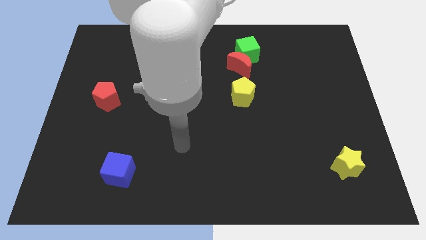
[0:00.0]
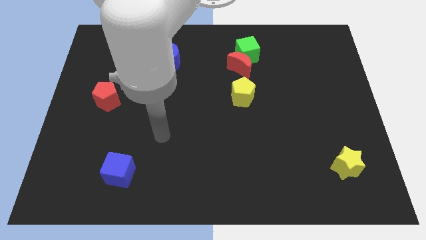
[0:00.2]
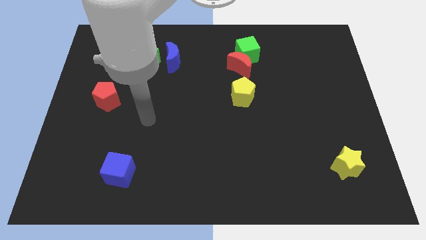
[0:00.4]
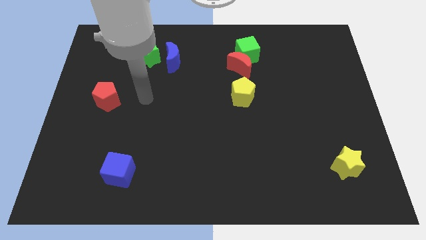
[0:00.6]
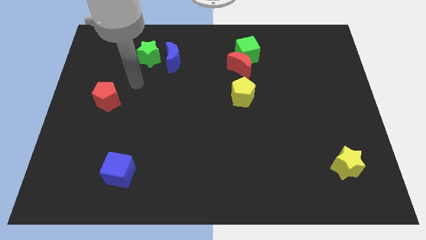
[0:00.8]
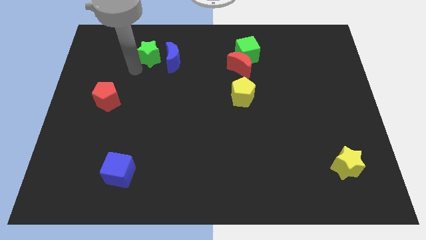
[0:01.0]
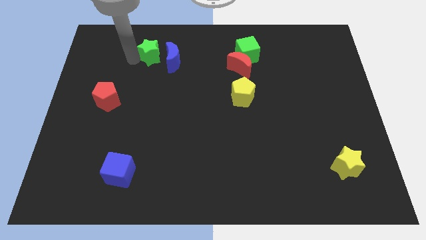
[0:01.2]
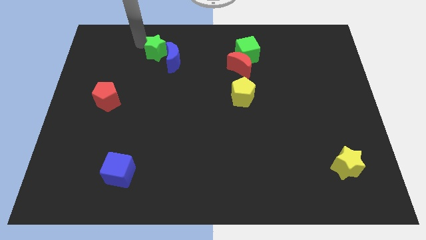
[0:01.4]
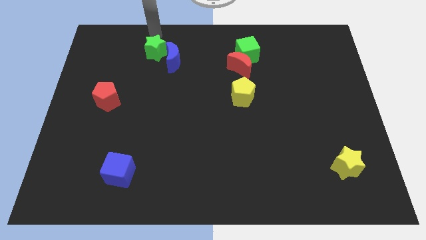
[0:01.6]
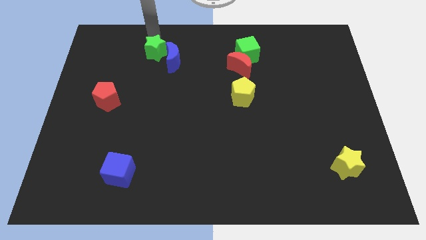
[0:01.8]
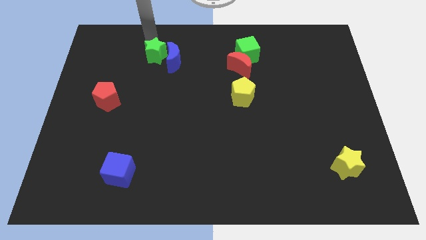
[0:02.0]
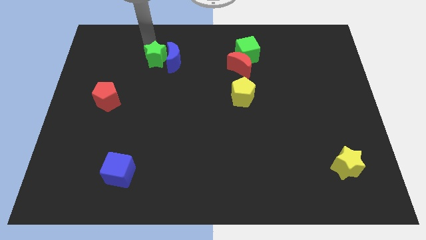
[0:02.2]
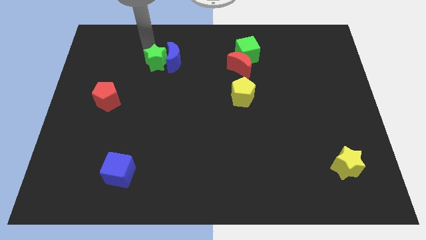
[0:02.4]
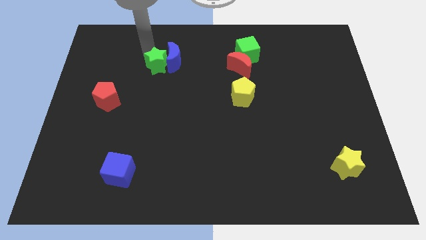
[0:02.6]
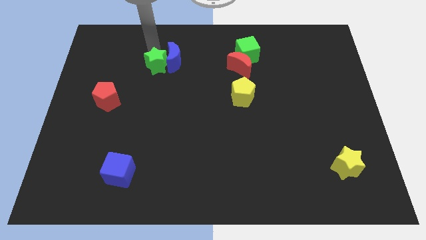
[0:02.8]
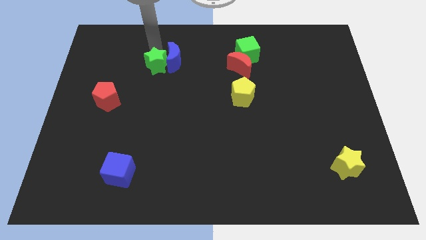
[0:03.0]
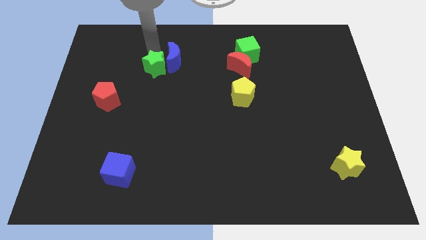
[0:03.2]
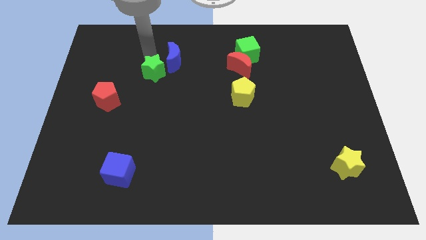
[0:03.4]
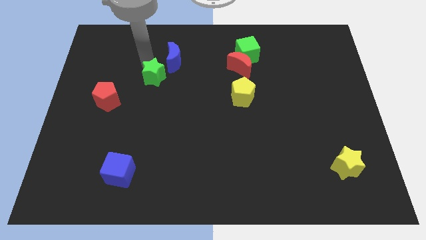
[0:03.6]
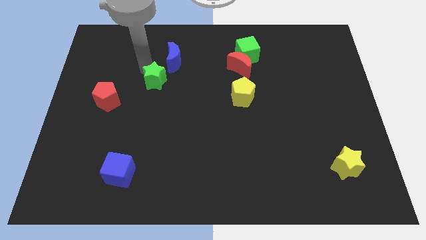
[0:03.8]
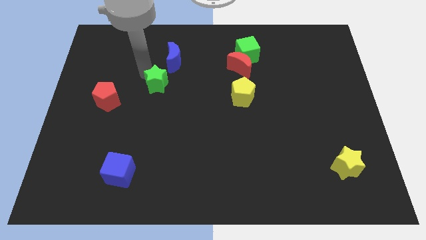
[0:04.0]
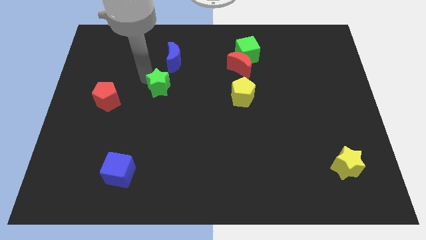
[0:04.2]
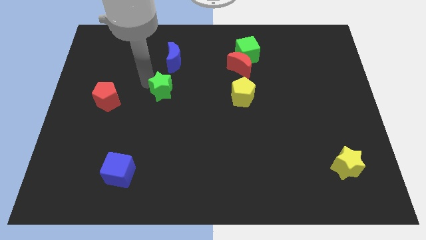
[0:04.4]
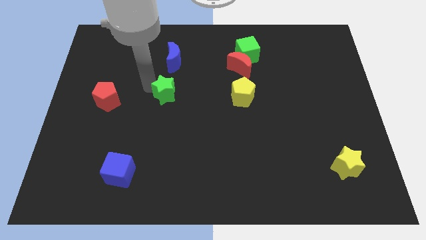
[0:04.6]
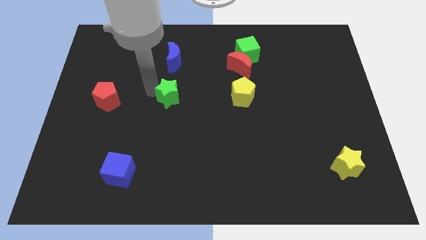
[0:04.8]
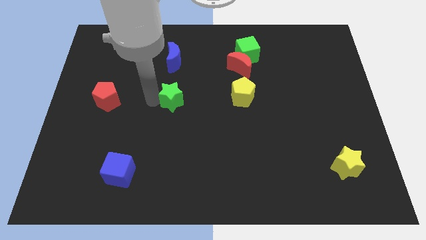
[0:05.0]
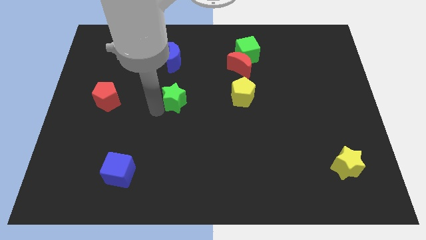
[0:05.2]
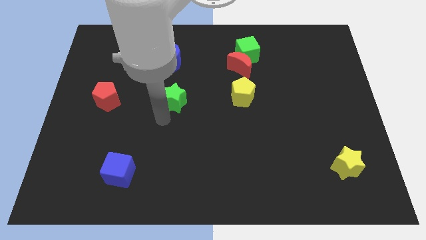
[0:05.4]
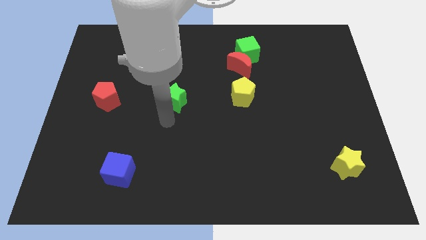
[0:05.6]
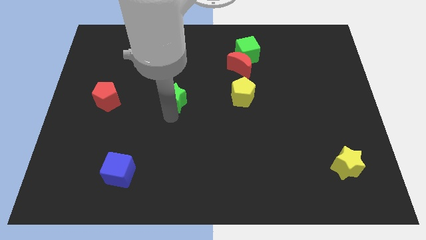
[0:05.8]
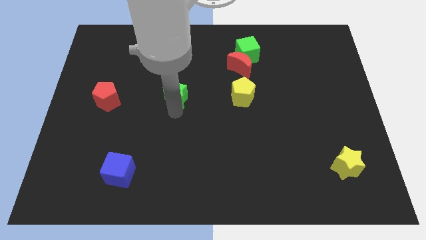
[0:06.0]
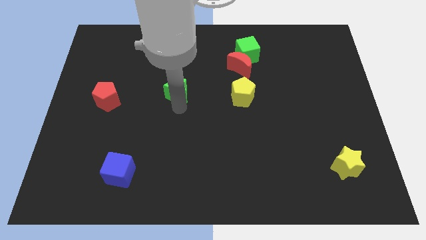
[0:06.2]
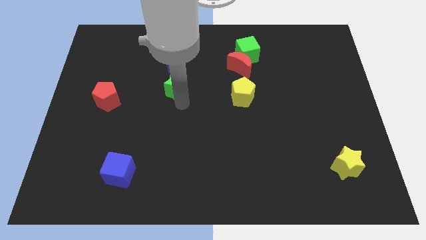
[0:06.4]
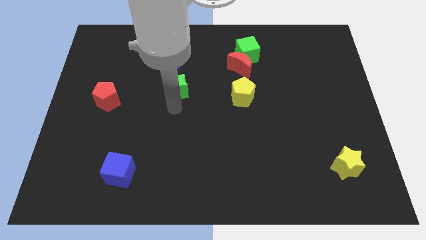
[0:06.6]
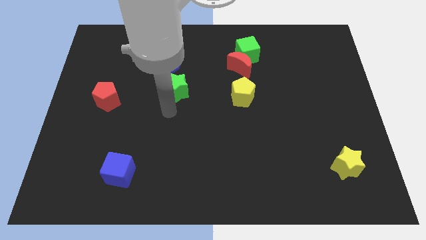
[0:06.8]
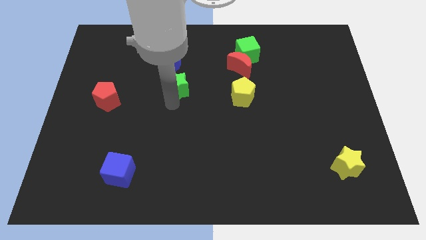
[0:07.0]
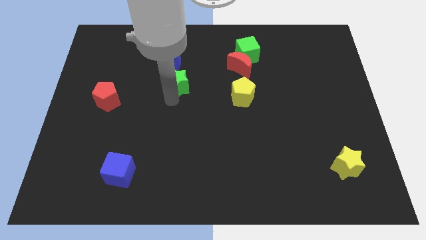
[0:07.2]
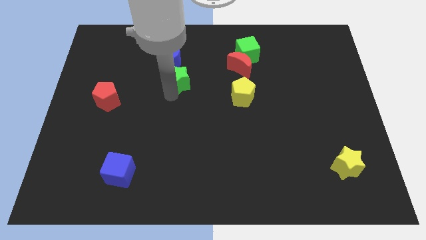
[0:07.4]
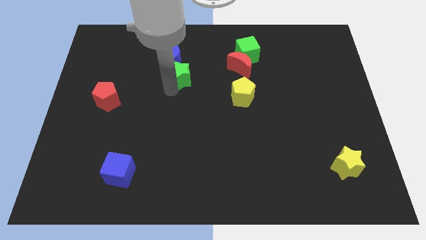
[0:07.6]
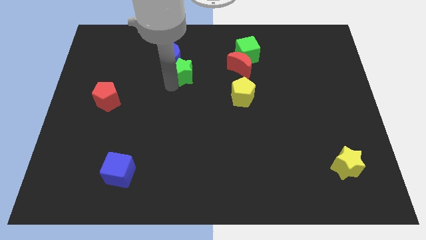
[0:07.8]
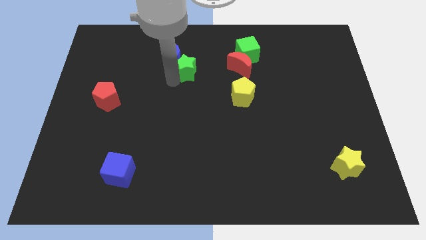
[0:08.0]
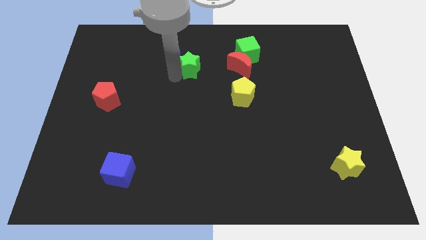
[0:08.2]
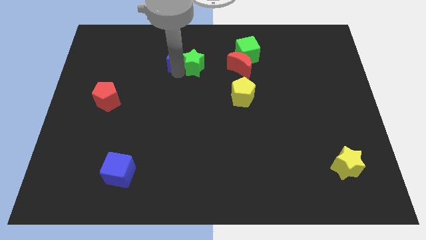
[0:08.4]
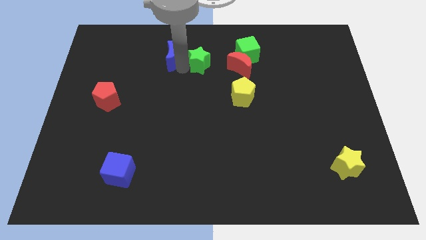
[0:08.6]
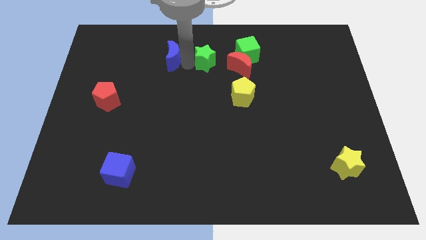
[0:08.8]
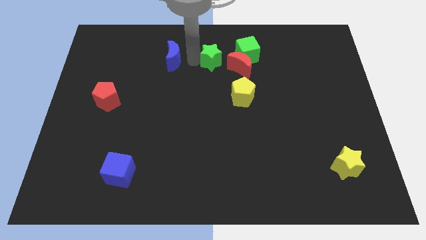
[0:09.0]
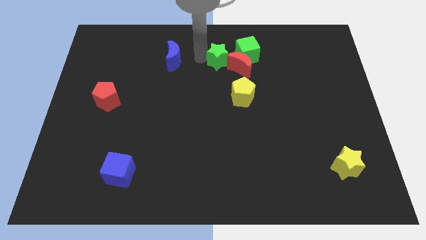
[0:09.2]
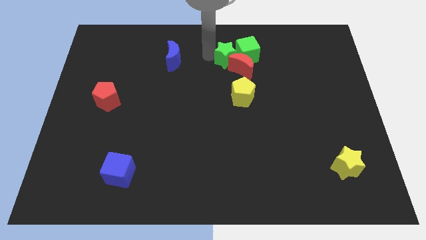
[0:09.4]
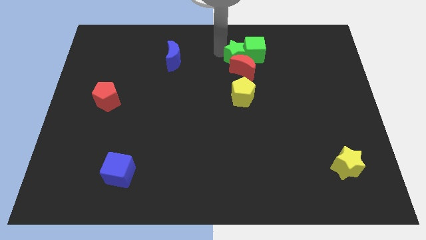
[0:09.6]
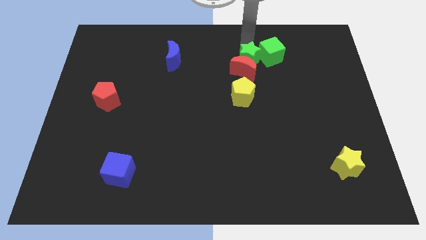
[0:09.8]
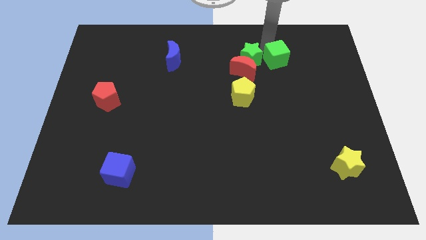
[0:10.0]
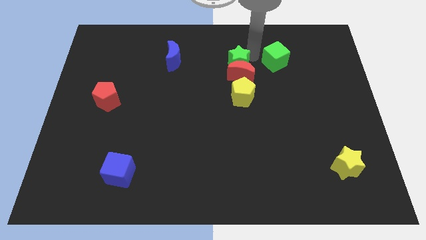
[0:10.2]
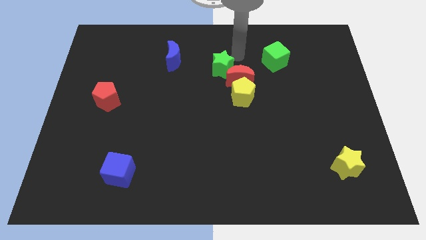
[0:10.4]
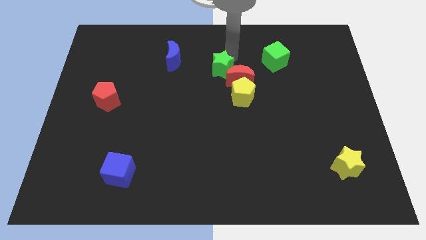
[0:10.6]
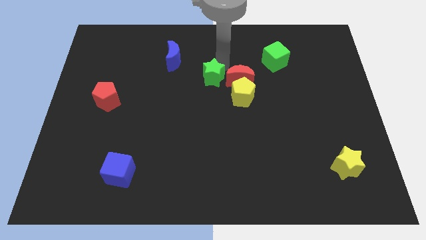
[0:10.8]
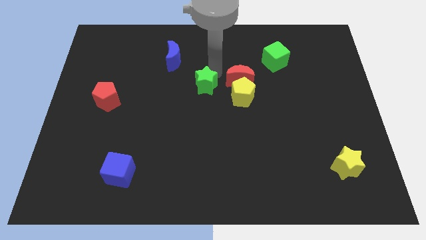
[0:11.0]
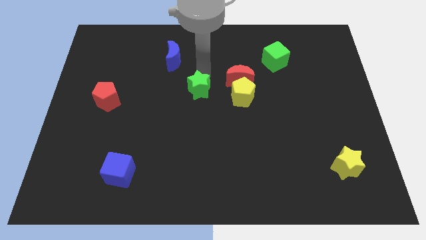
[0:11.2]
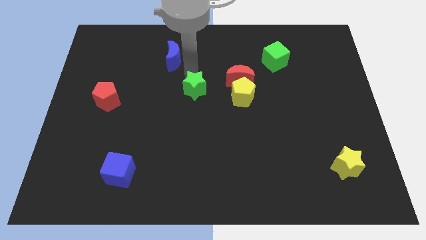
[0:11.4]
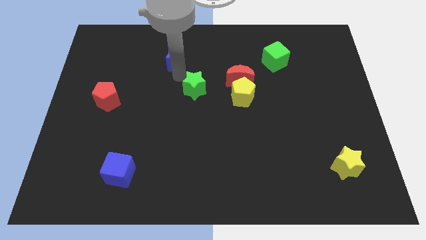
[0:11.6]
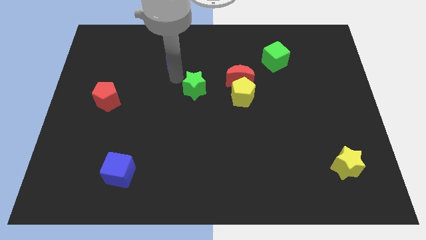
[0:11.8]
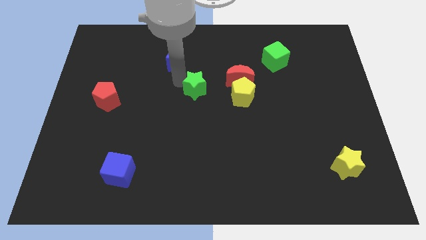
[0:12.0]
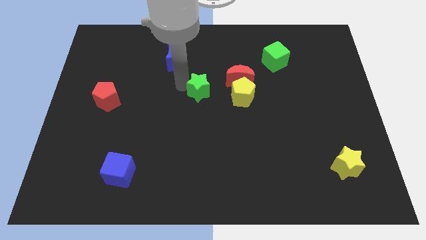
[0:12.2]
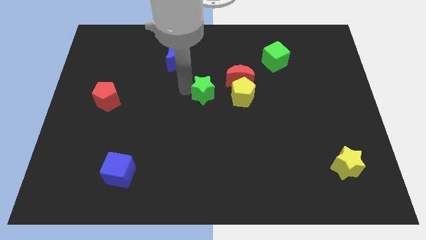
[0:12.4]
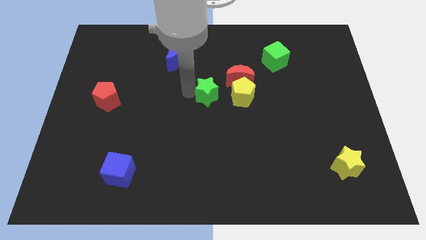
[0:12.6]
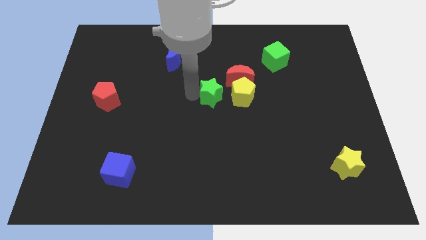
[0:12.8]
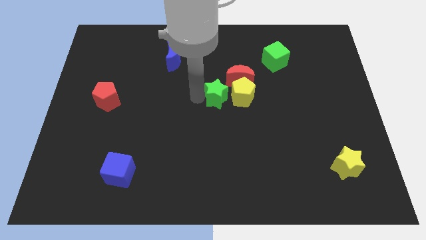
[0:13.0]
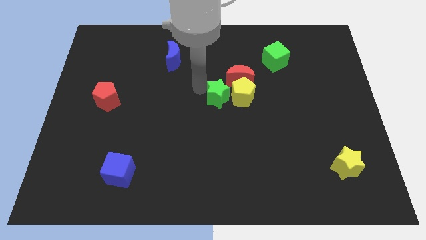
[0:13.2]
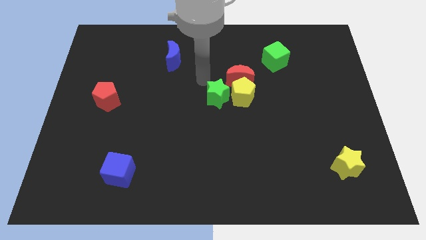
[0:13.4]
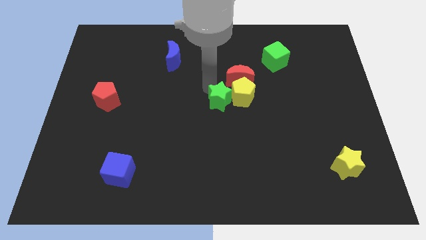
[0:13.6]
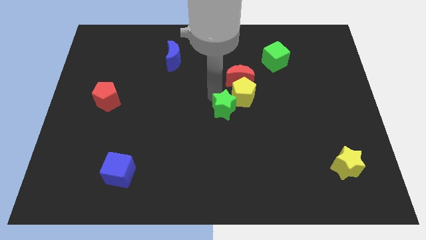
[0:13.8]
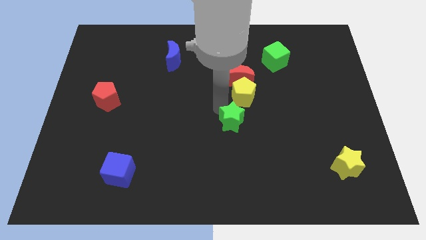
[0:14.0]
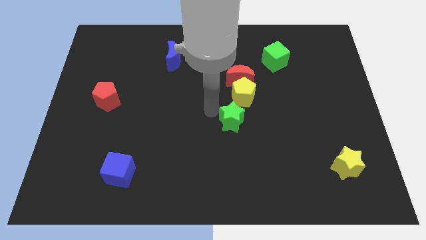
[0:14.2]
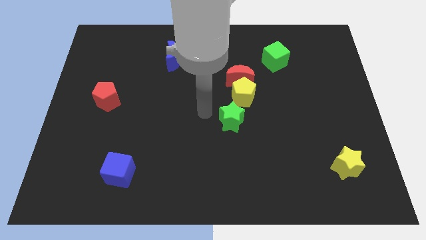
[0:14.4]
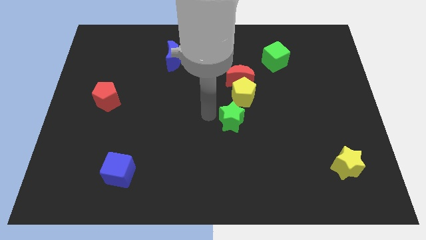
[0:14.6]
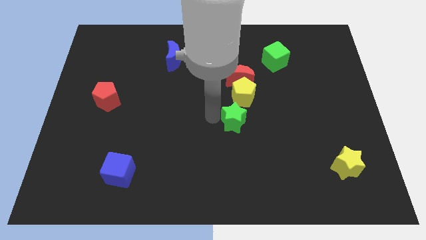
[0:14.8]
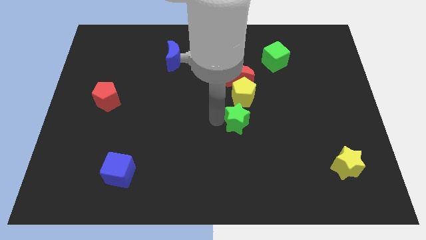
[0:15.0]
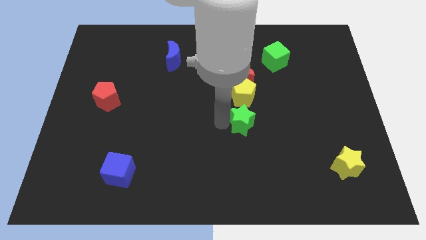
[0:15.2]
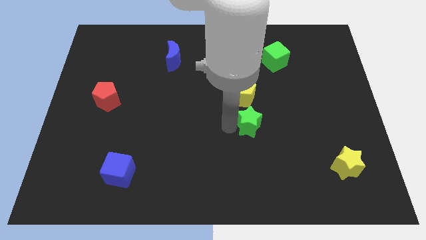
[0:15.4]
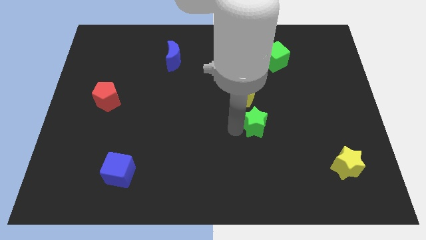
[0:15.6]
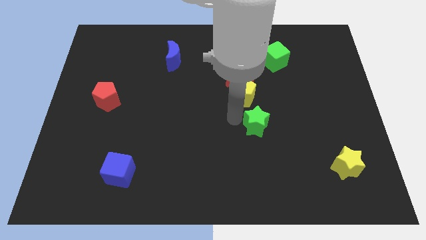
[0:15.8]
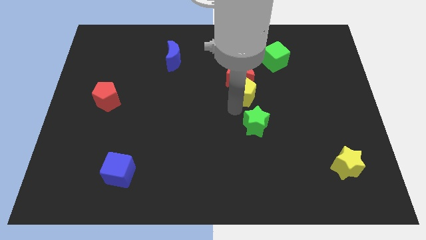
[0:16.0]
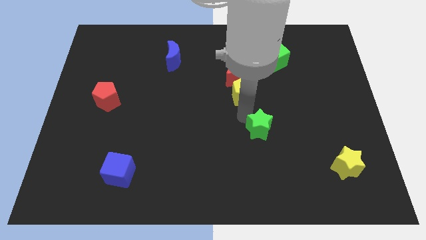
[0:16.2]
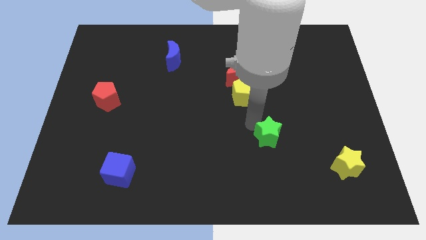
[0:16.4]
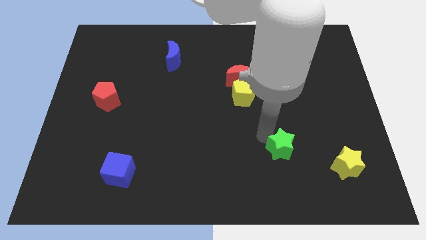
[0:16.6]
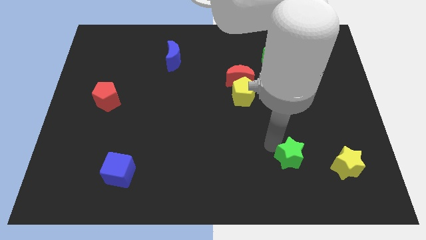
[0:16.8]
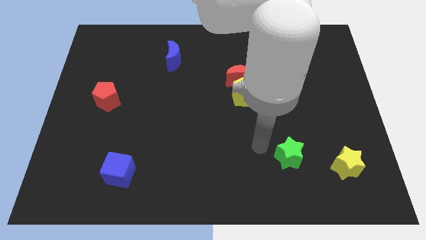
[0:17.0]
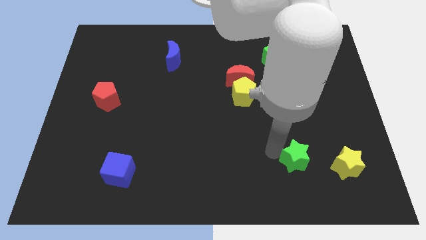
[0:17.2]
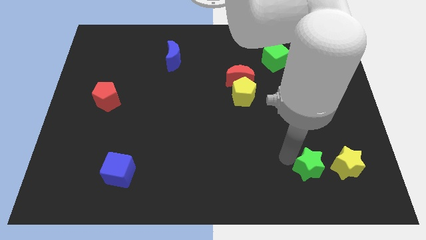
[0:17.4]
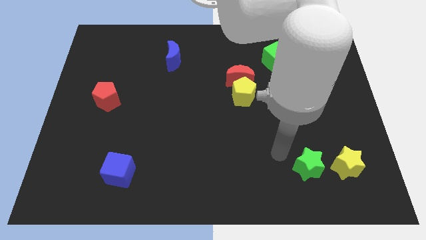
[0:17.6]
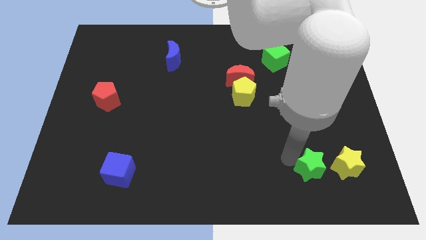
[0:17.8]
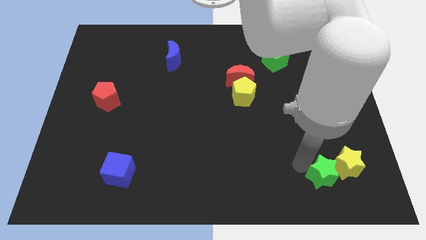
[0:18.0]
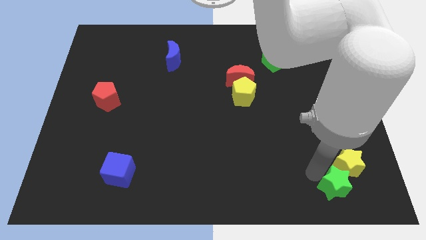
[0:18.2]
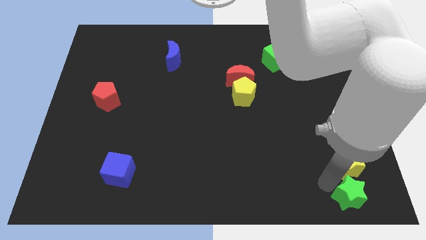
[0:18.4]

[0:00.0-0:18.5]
put the green star to the lower right corner
